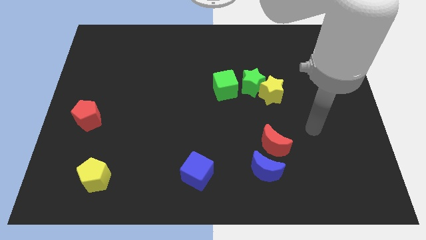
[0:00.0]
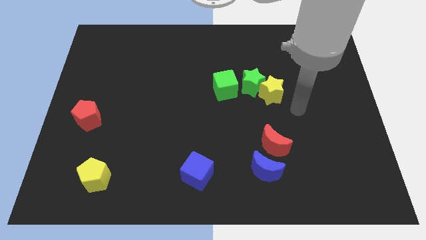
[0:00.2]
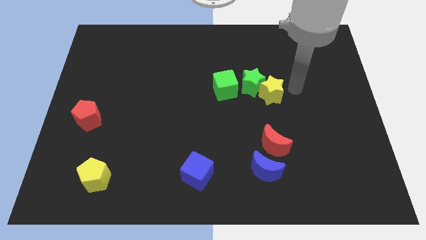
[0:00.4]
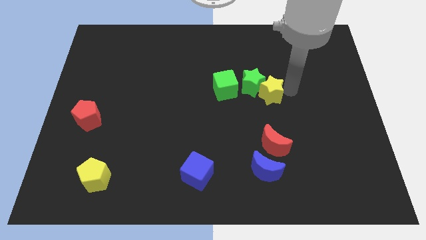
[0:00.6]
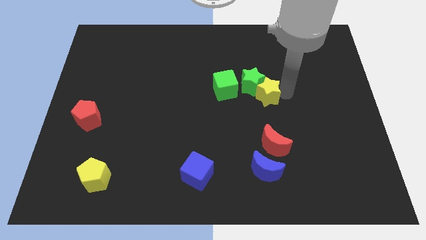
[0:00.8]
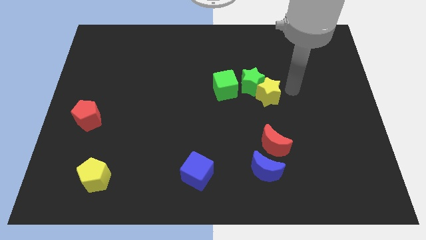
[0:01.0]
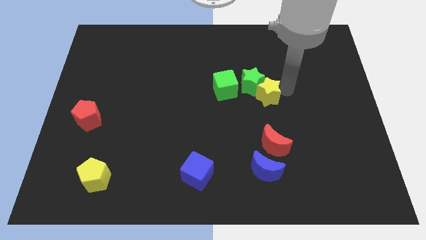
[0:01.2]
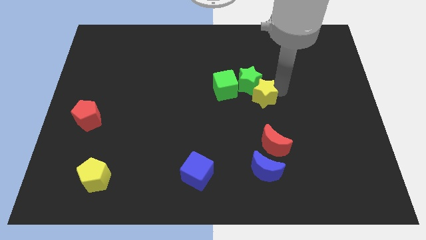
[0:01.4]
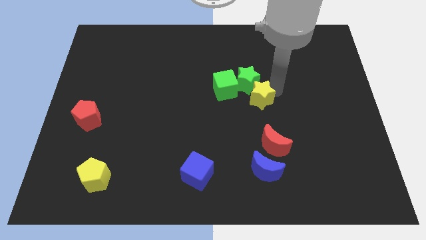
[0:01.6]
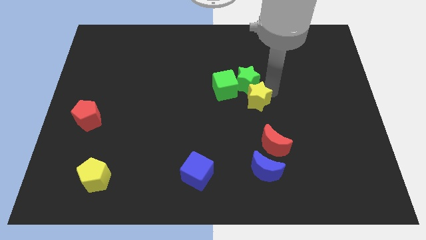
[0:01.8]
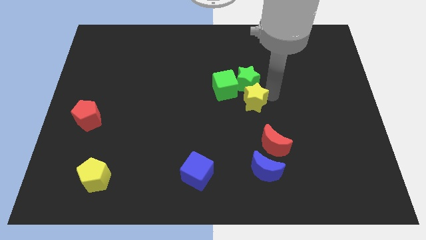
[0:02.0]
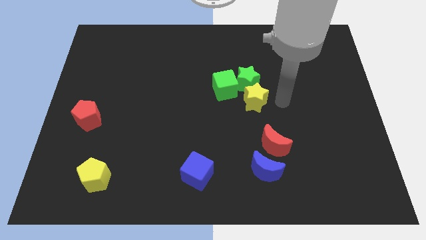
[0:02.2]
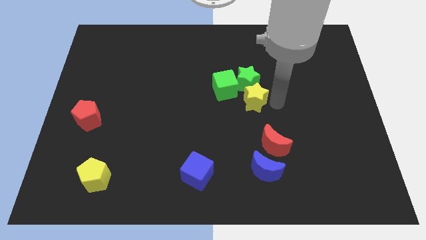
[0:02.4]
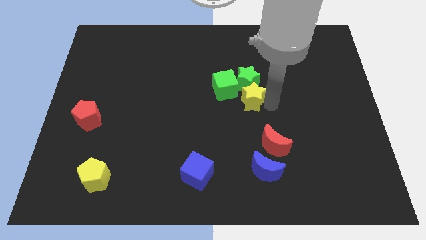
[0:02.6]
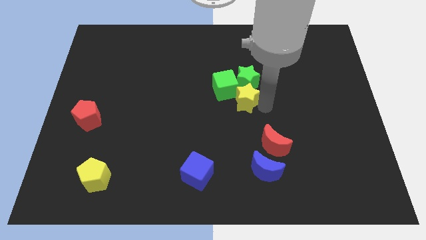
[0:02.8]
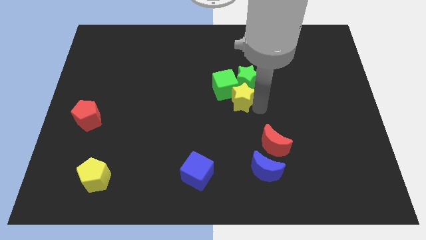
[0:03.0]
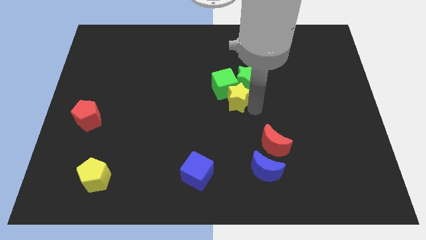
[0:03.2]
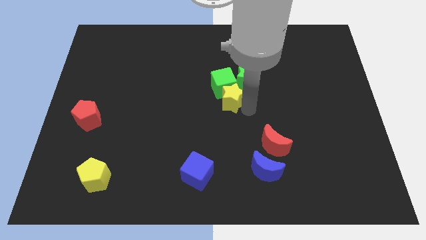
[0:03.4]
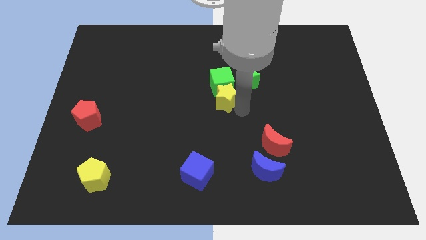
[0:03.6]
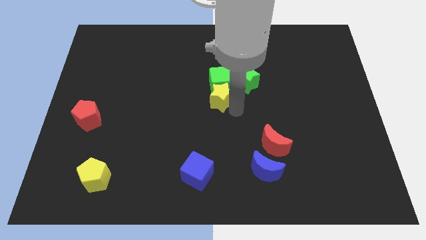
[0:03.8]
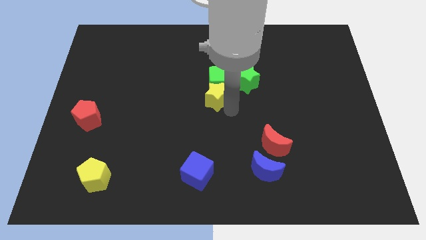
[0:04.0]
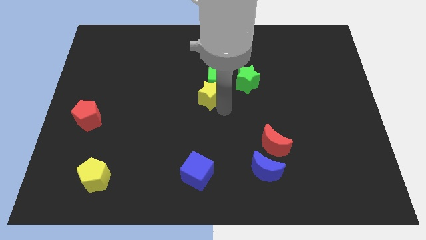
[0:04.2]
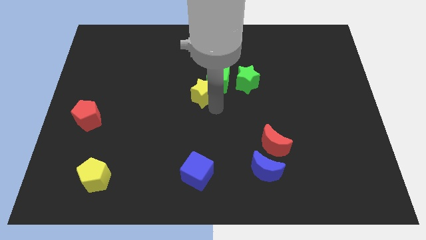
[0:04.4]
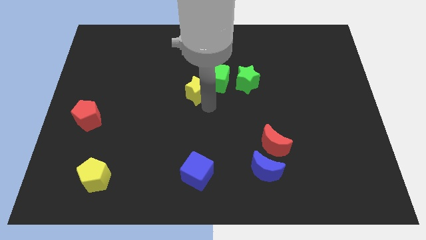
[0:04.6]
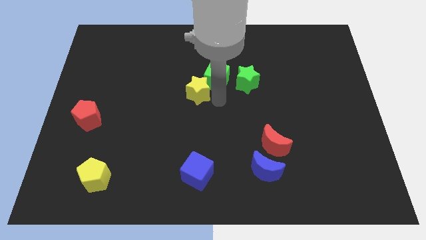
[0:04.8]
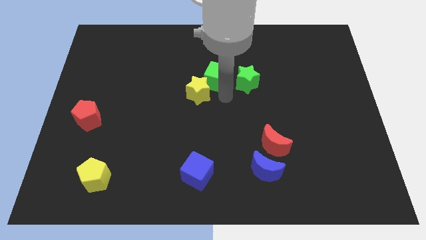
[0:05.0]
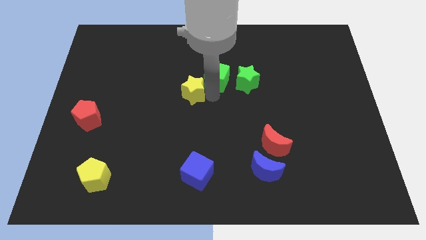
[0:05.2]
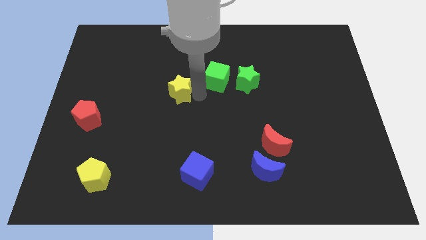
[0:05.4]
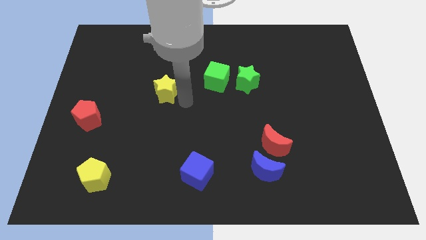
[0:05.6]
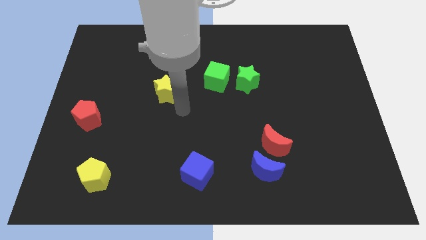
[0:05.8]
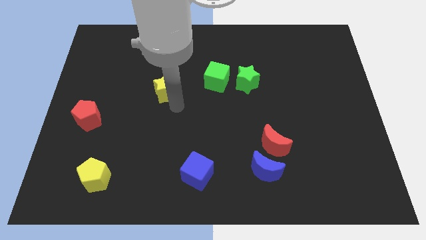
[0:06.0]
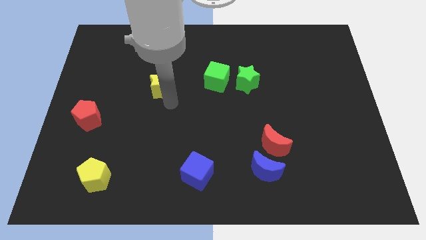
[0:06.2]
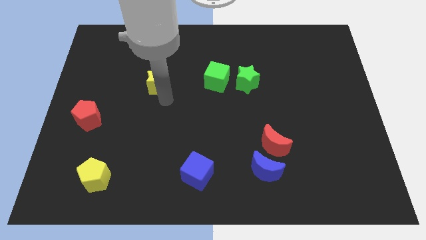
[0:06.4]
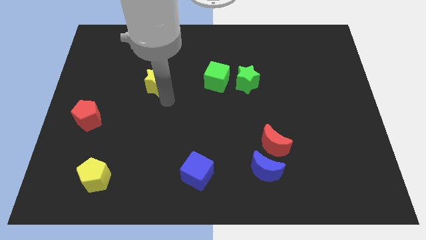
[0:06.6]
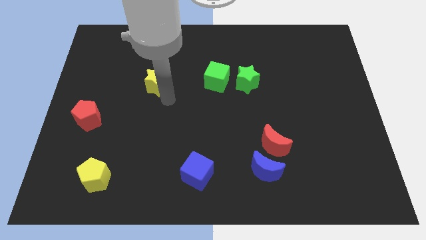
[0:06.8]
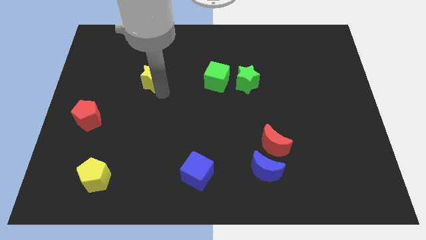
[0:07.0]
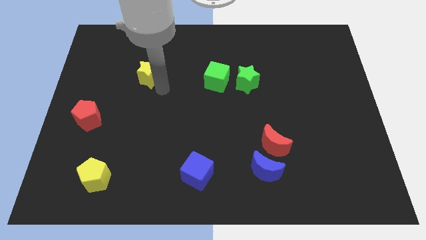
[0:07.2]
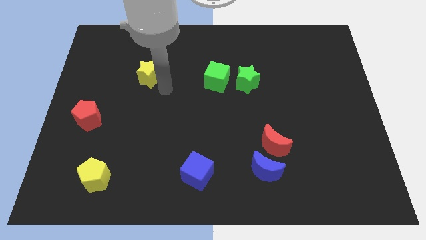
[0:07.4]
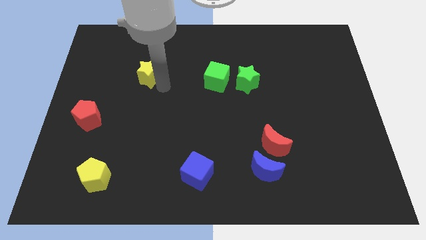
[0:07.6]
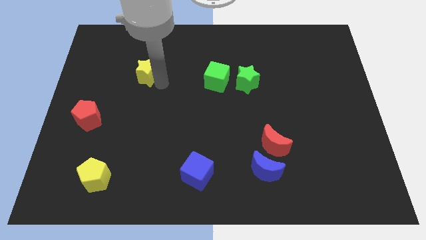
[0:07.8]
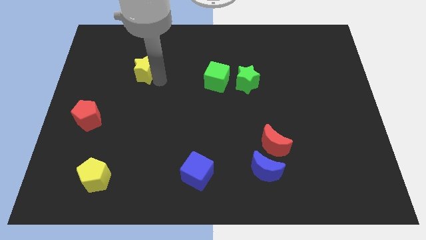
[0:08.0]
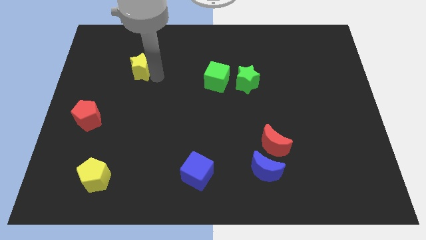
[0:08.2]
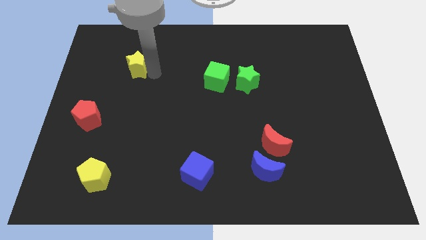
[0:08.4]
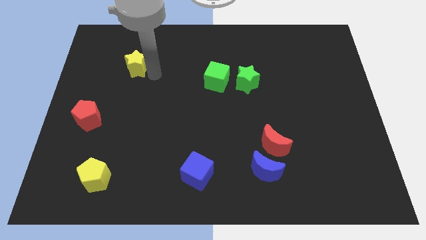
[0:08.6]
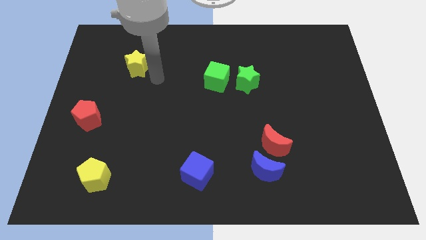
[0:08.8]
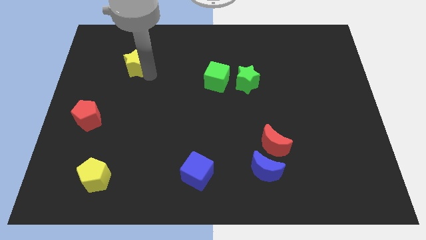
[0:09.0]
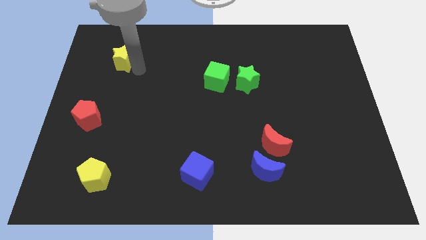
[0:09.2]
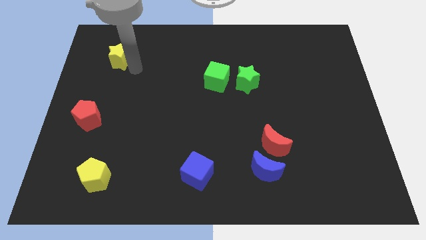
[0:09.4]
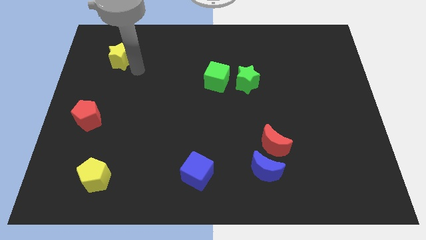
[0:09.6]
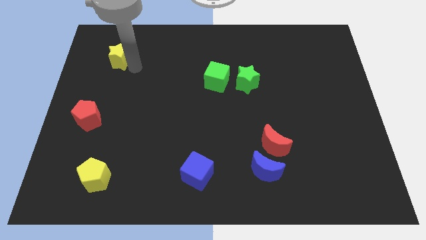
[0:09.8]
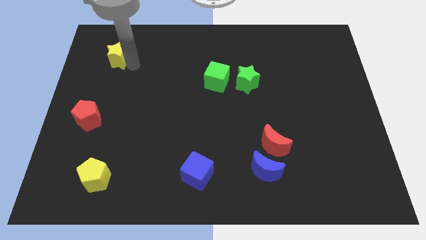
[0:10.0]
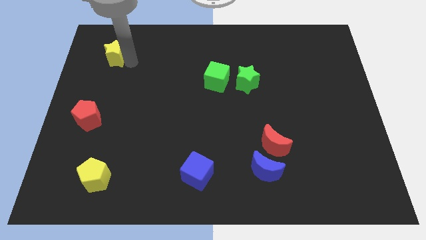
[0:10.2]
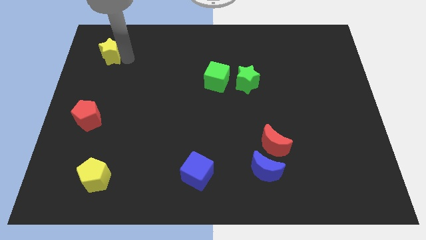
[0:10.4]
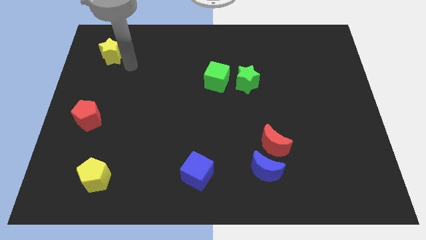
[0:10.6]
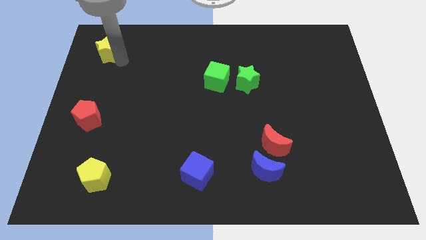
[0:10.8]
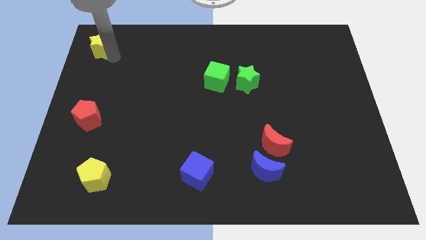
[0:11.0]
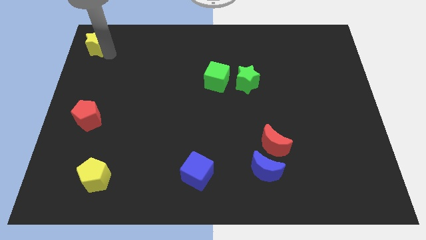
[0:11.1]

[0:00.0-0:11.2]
put the yellow star to the top left corner

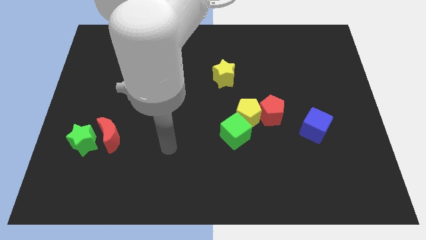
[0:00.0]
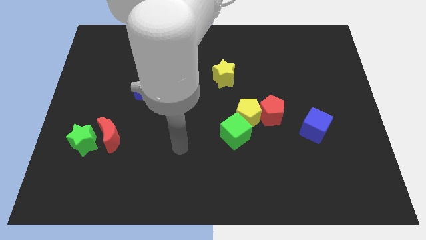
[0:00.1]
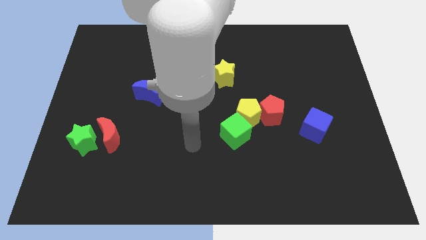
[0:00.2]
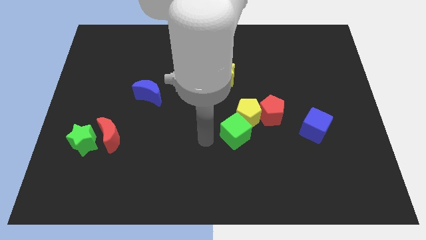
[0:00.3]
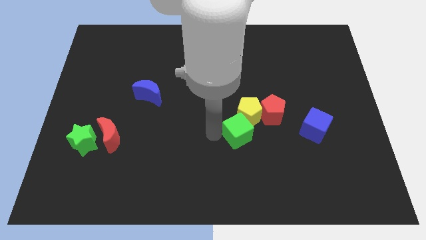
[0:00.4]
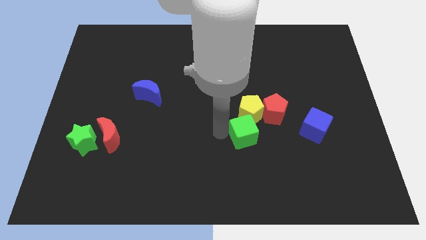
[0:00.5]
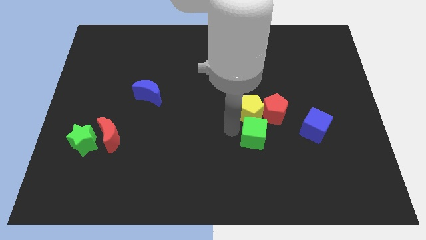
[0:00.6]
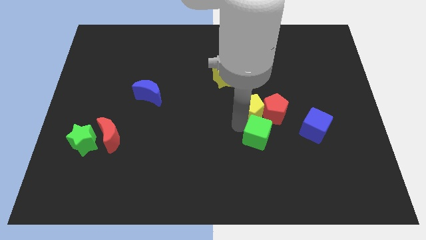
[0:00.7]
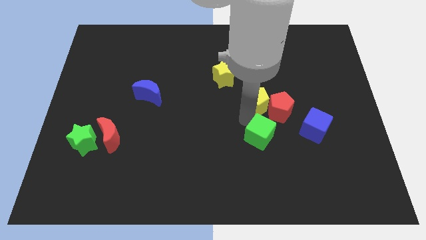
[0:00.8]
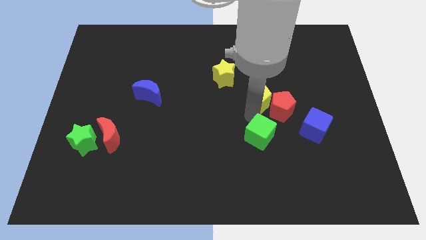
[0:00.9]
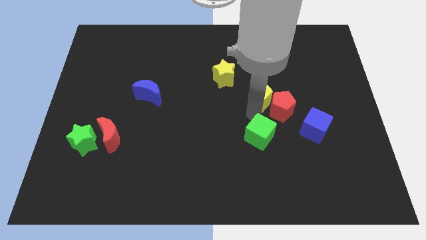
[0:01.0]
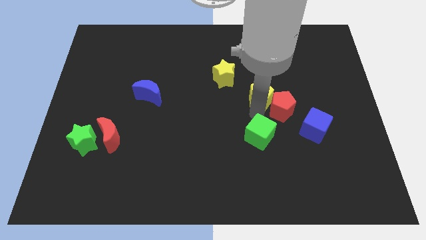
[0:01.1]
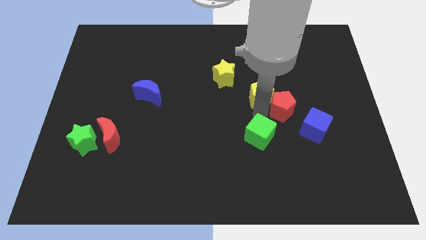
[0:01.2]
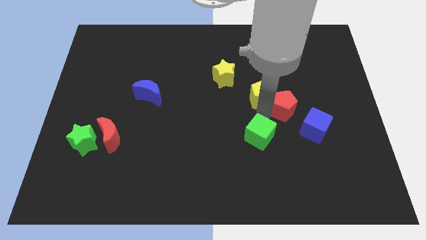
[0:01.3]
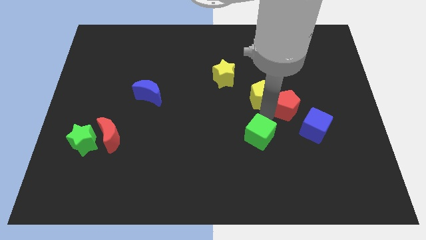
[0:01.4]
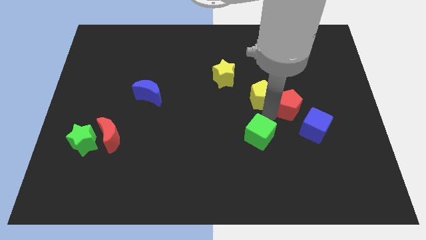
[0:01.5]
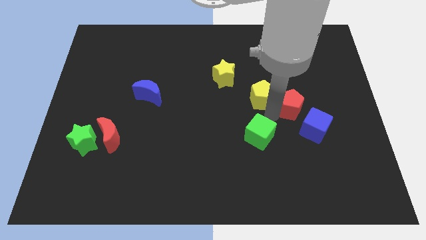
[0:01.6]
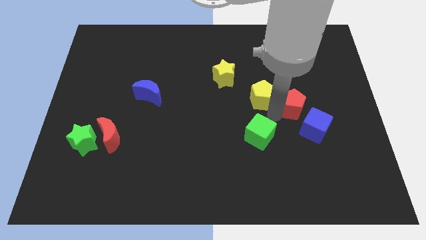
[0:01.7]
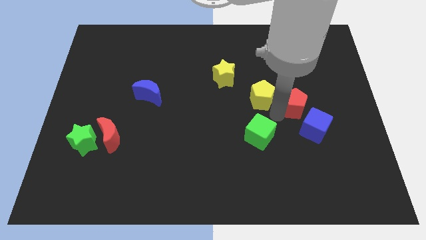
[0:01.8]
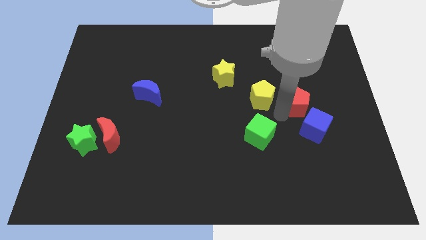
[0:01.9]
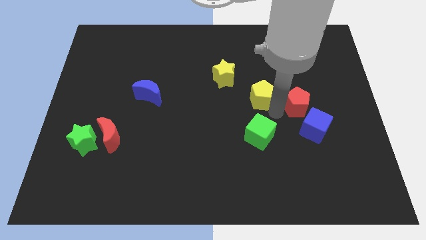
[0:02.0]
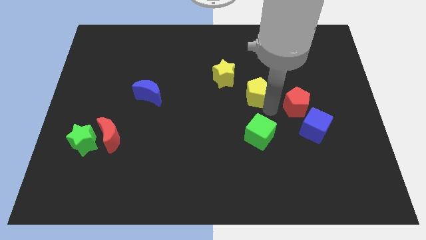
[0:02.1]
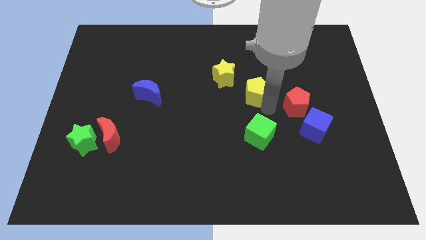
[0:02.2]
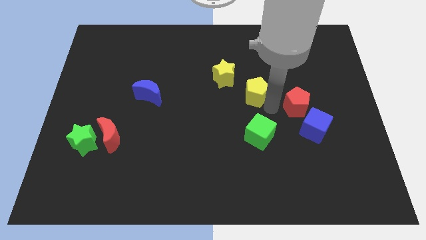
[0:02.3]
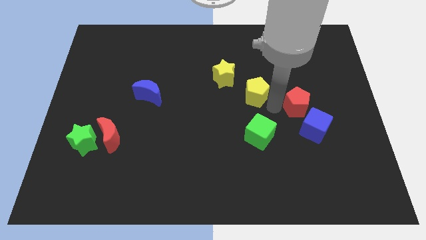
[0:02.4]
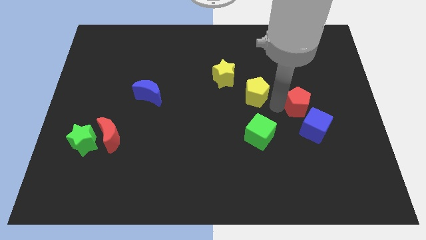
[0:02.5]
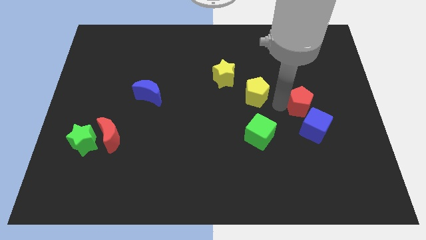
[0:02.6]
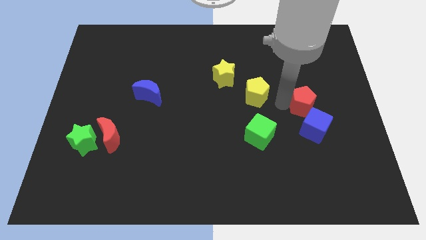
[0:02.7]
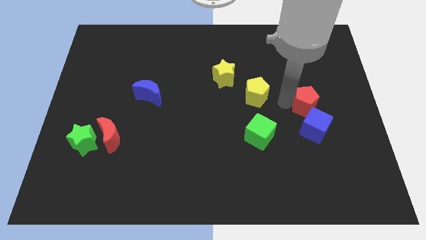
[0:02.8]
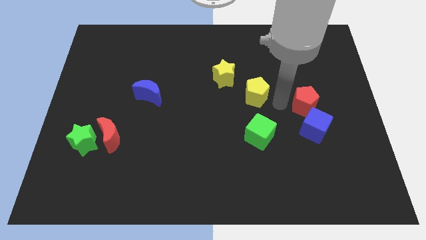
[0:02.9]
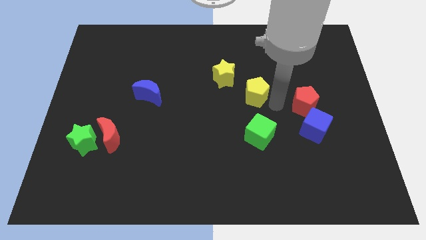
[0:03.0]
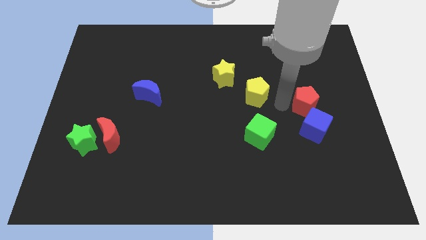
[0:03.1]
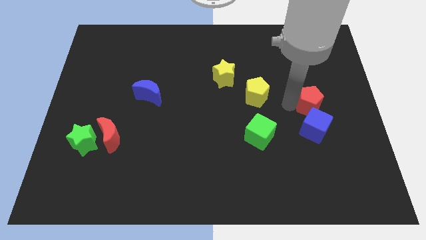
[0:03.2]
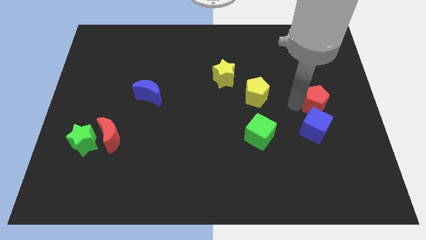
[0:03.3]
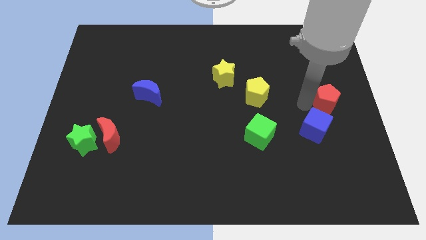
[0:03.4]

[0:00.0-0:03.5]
slide the red pentagon to the right side of the board
